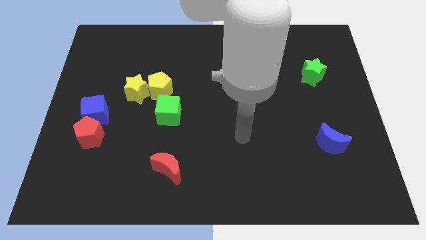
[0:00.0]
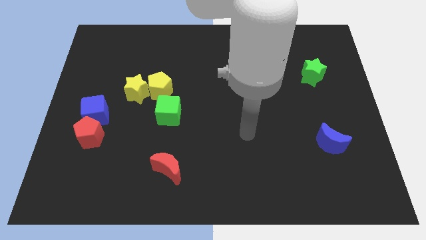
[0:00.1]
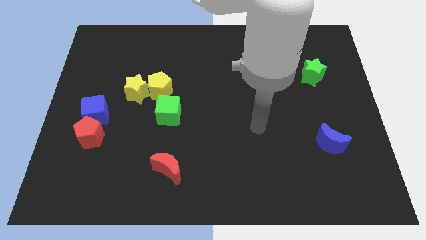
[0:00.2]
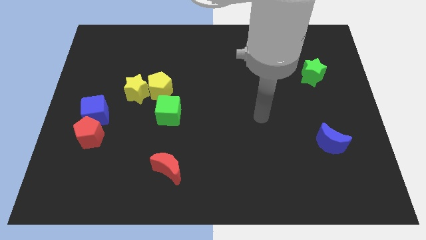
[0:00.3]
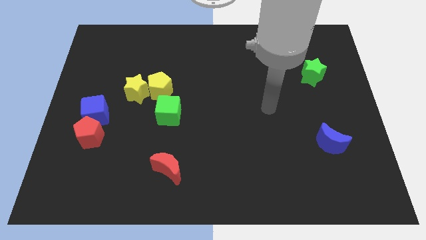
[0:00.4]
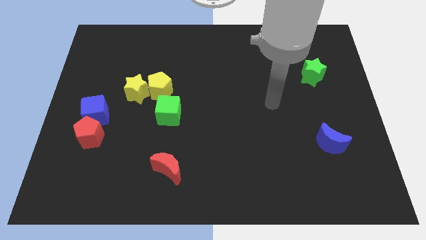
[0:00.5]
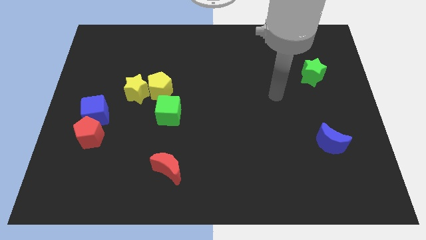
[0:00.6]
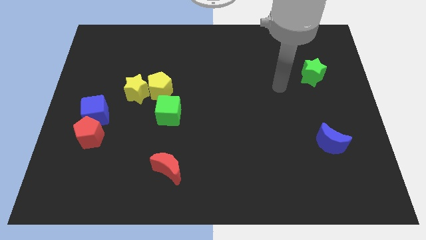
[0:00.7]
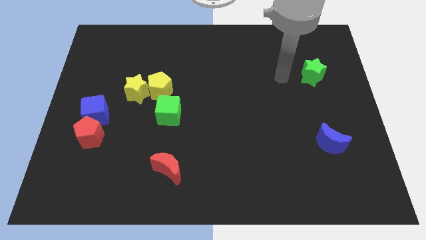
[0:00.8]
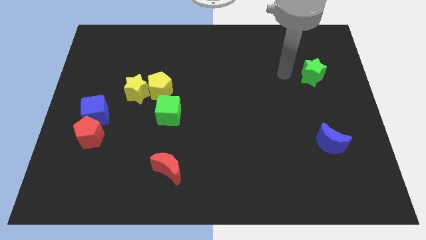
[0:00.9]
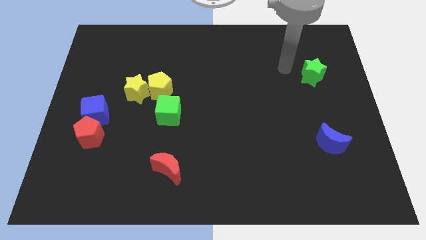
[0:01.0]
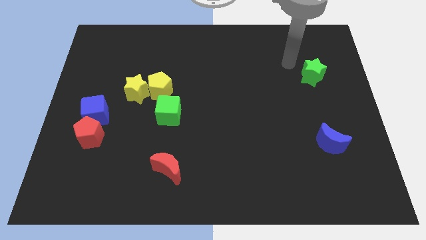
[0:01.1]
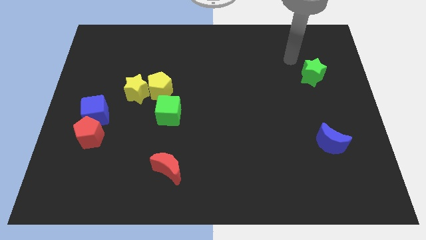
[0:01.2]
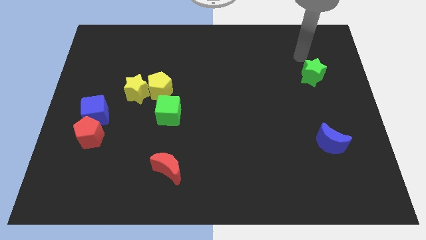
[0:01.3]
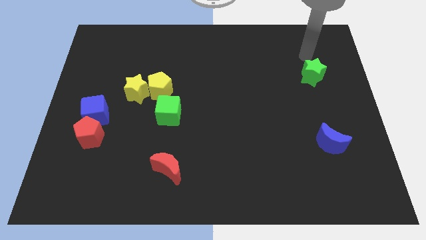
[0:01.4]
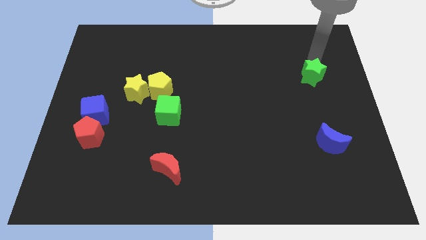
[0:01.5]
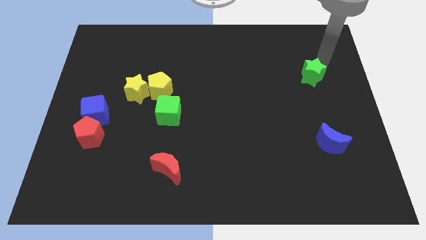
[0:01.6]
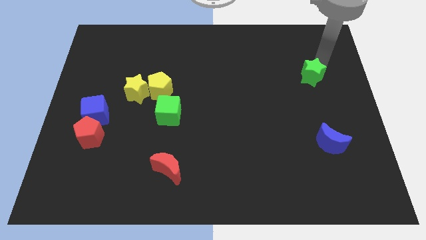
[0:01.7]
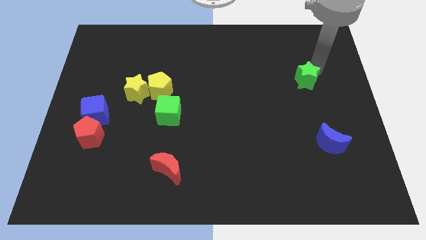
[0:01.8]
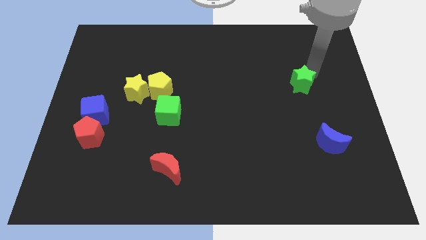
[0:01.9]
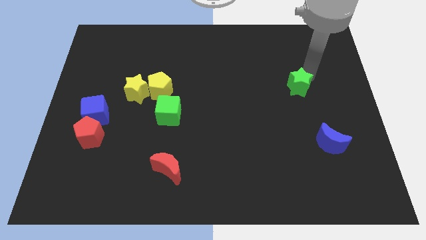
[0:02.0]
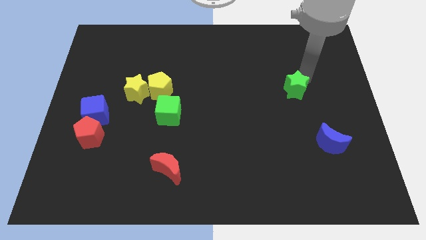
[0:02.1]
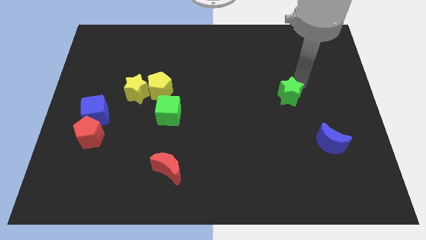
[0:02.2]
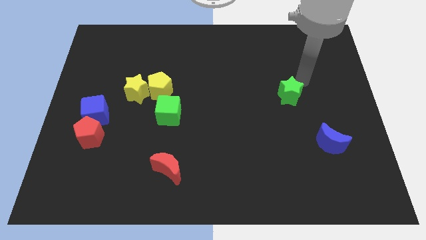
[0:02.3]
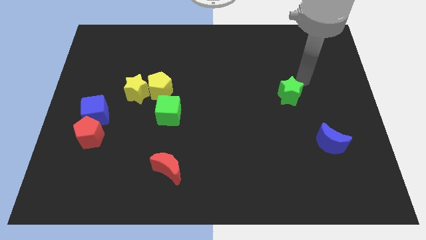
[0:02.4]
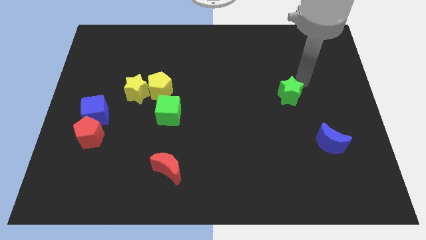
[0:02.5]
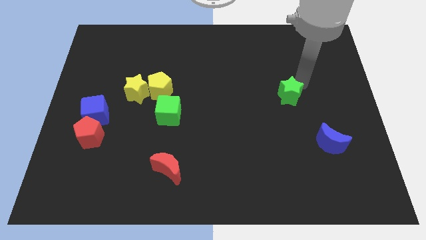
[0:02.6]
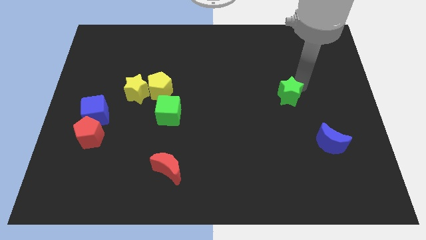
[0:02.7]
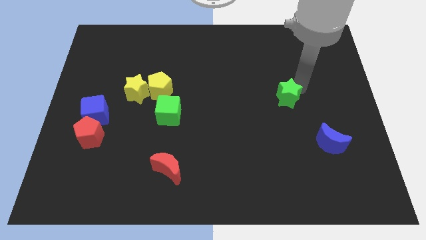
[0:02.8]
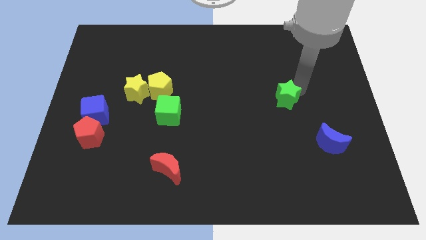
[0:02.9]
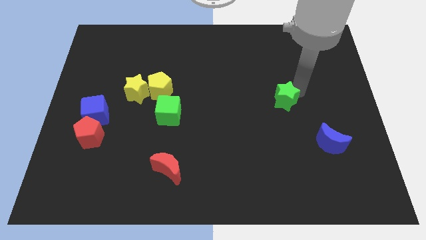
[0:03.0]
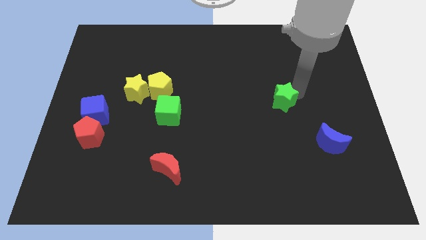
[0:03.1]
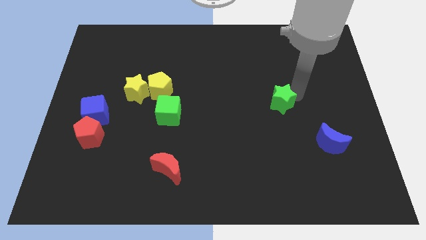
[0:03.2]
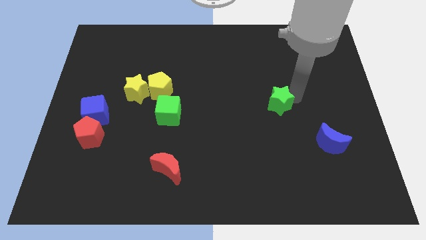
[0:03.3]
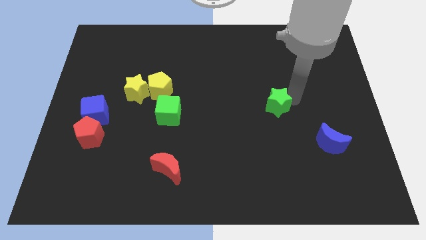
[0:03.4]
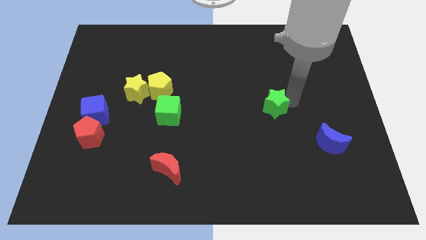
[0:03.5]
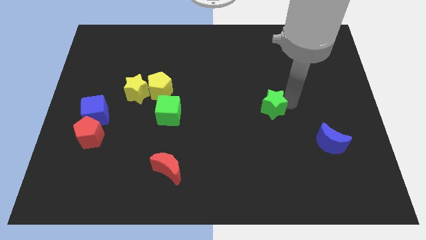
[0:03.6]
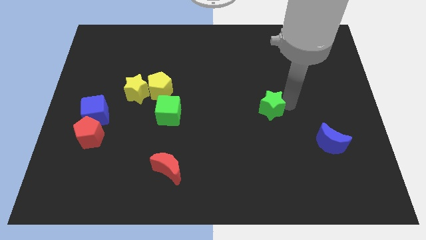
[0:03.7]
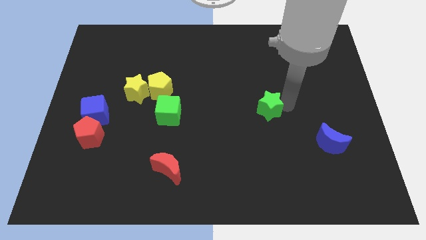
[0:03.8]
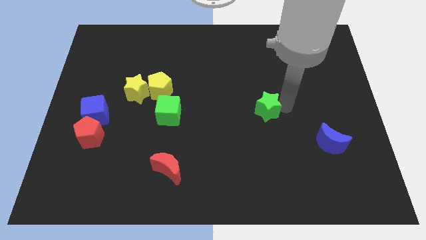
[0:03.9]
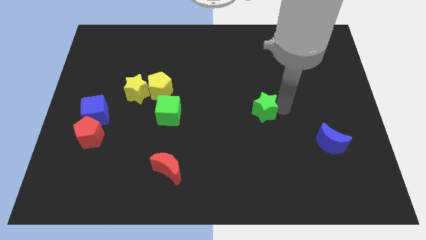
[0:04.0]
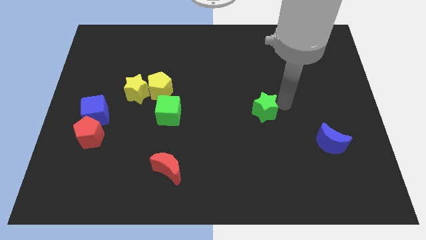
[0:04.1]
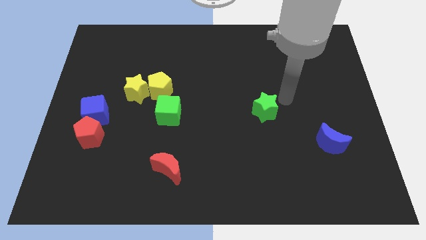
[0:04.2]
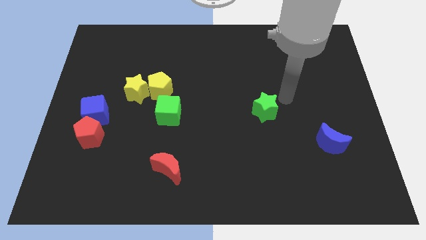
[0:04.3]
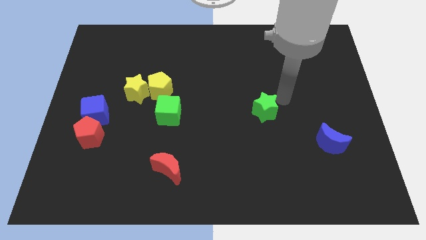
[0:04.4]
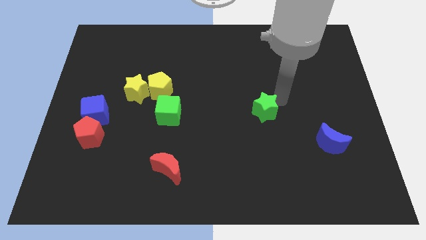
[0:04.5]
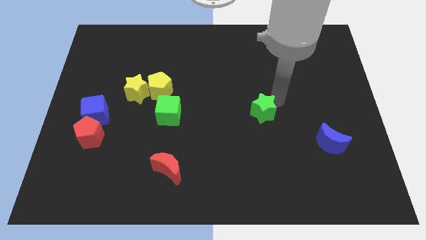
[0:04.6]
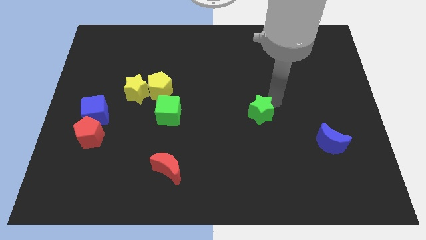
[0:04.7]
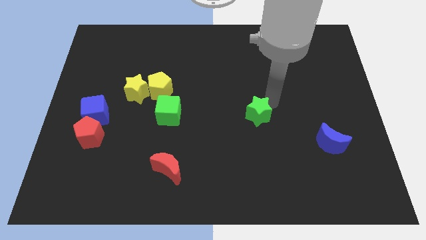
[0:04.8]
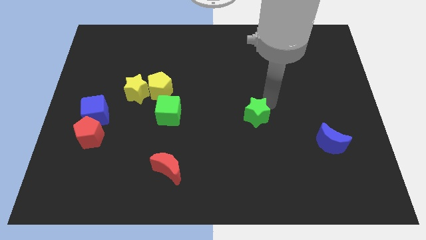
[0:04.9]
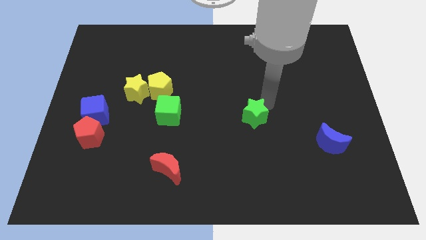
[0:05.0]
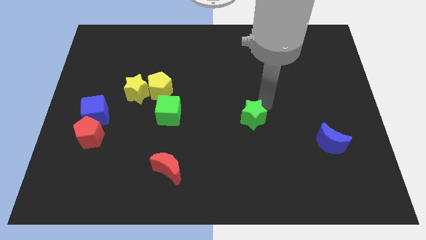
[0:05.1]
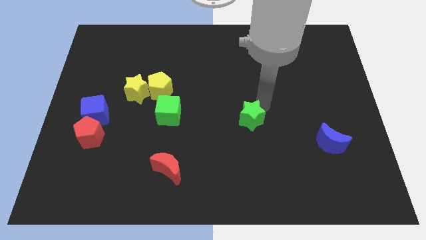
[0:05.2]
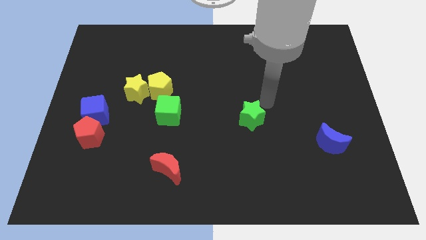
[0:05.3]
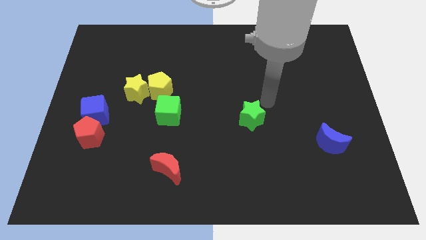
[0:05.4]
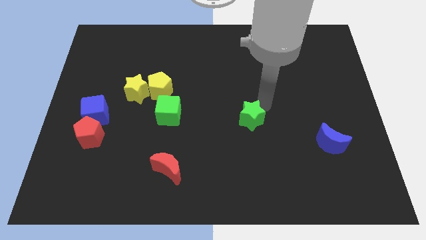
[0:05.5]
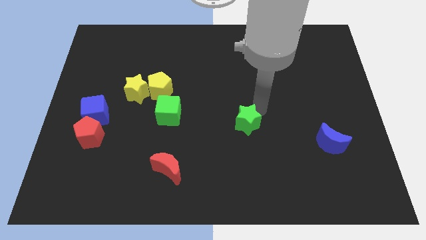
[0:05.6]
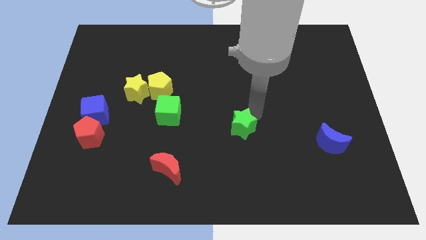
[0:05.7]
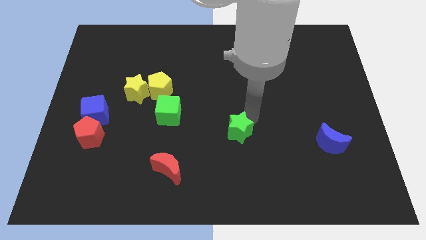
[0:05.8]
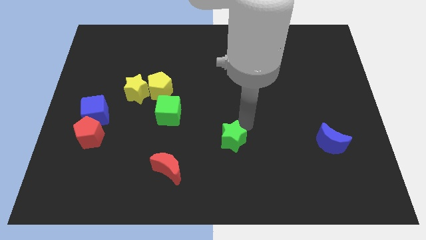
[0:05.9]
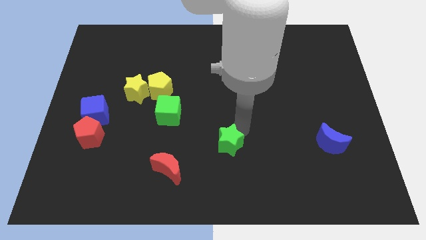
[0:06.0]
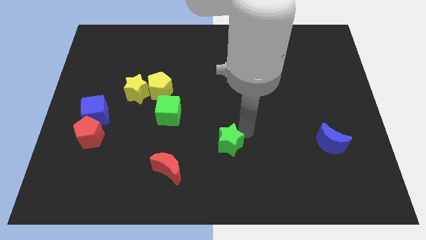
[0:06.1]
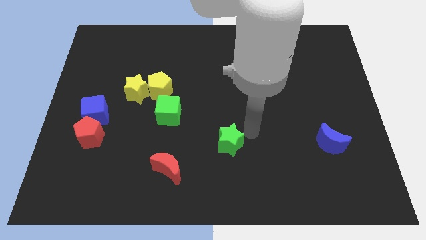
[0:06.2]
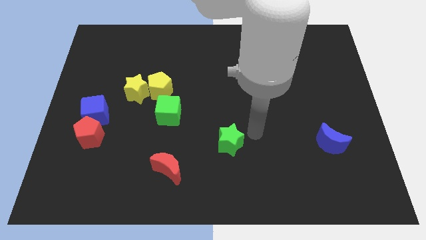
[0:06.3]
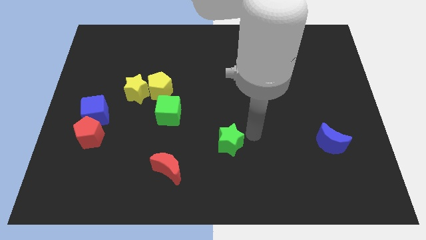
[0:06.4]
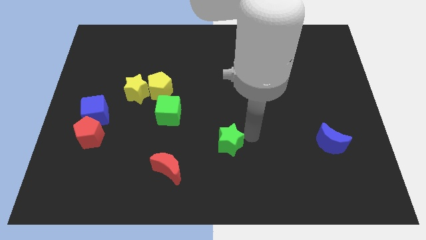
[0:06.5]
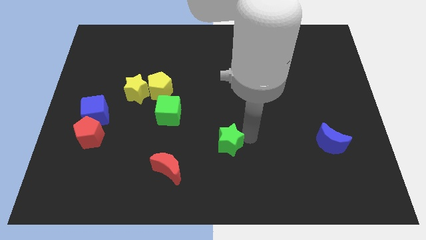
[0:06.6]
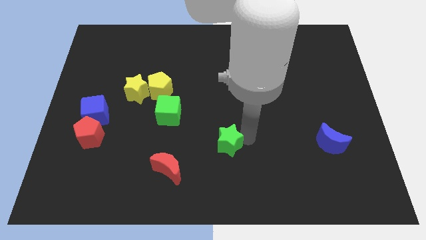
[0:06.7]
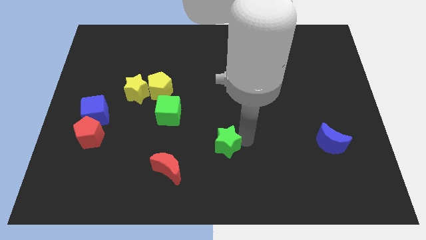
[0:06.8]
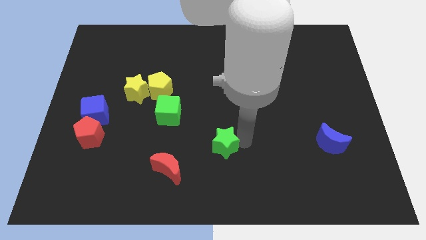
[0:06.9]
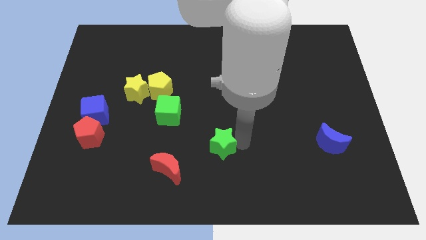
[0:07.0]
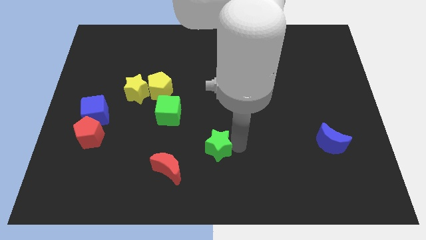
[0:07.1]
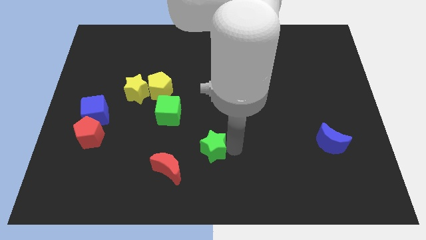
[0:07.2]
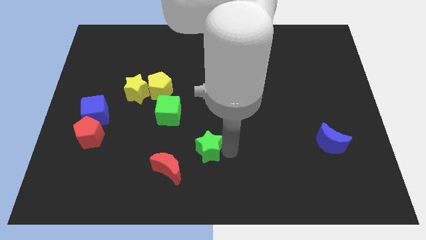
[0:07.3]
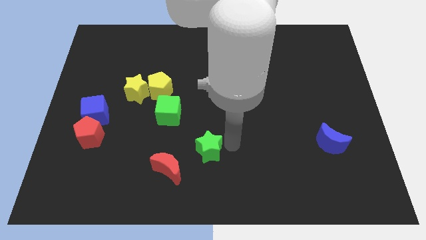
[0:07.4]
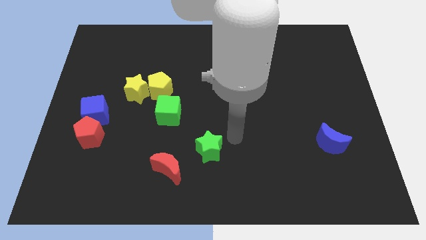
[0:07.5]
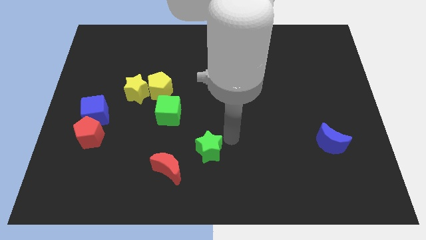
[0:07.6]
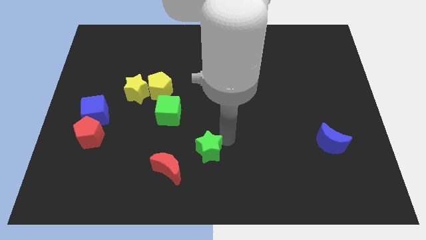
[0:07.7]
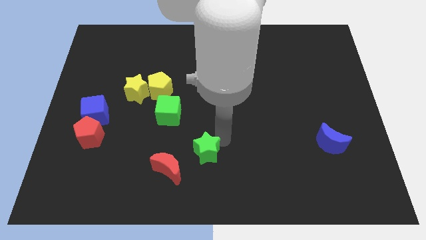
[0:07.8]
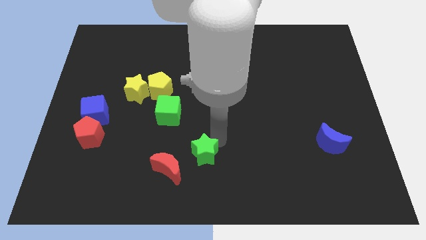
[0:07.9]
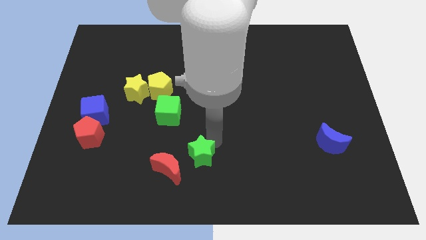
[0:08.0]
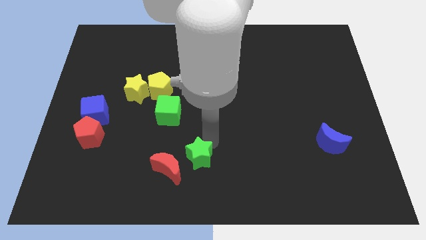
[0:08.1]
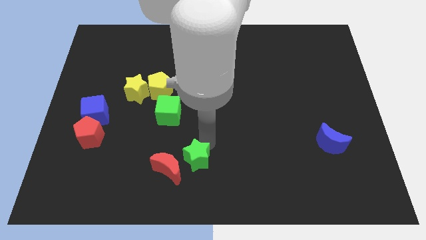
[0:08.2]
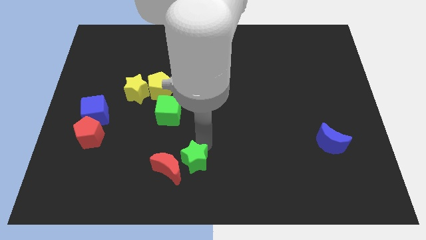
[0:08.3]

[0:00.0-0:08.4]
slide the green star next to the red moon
